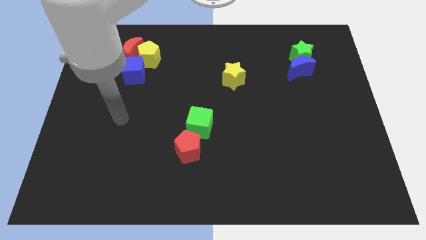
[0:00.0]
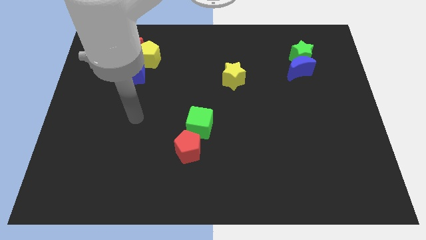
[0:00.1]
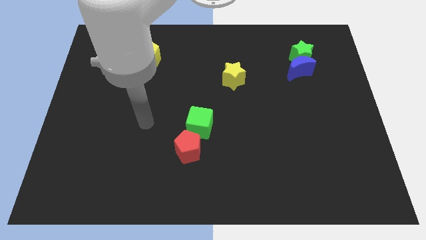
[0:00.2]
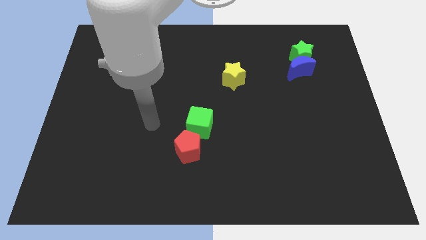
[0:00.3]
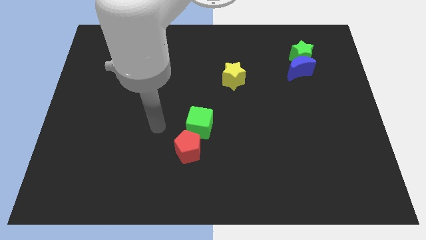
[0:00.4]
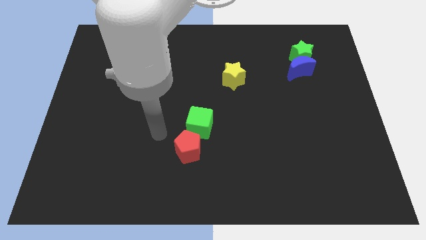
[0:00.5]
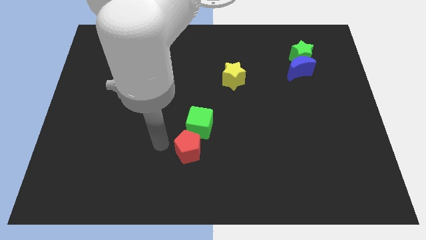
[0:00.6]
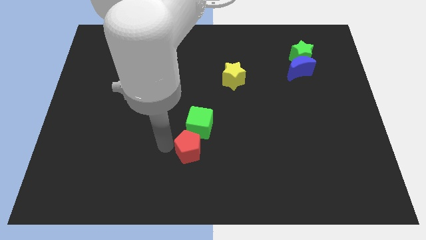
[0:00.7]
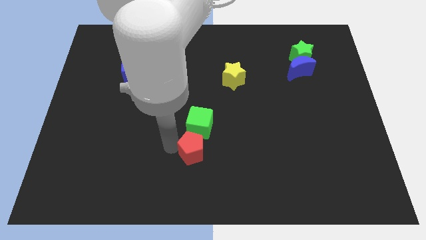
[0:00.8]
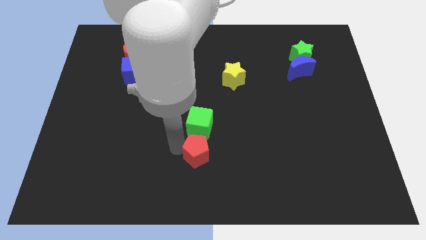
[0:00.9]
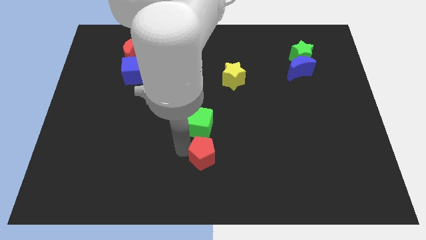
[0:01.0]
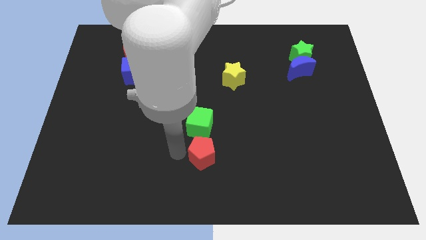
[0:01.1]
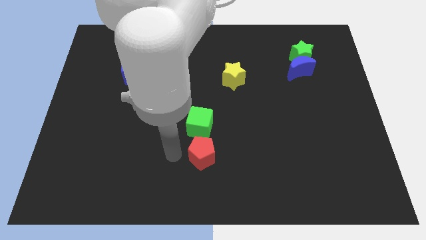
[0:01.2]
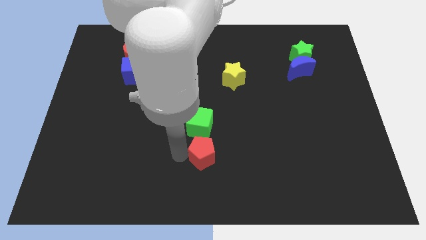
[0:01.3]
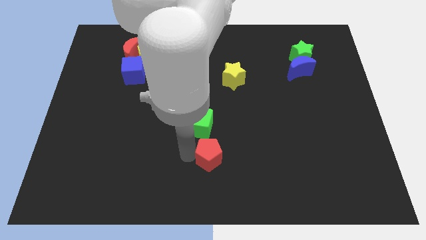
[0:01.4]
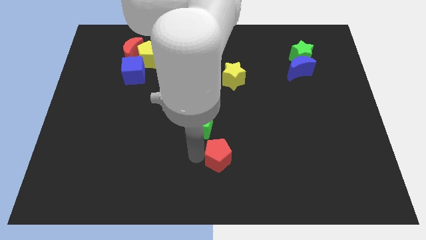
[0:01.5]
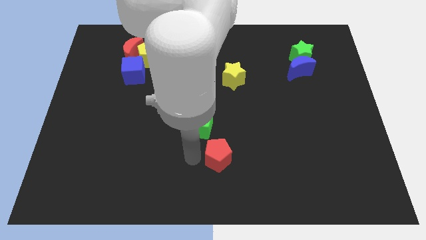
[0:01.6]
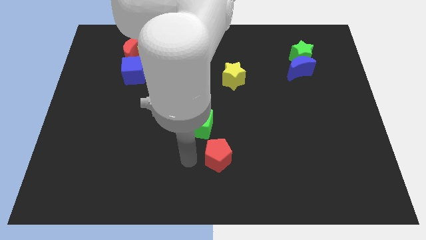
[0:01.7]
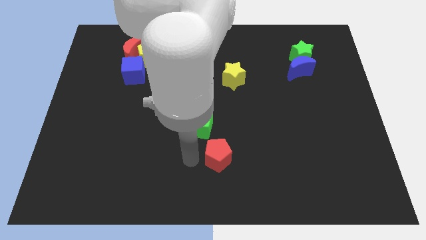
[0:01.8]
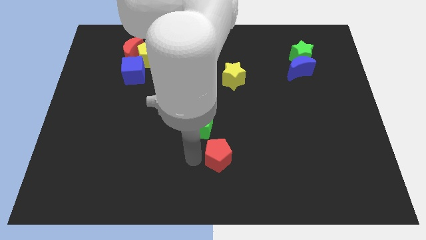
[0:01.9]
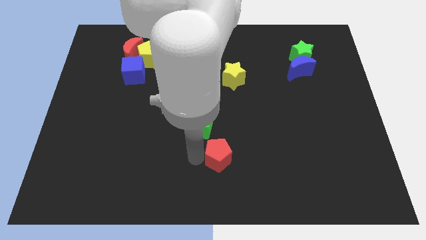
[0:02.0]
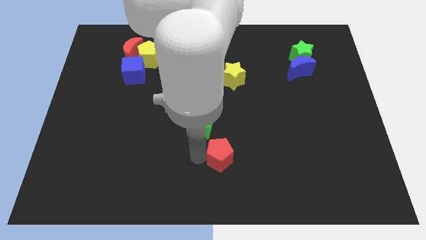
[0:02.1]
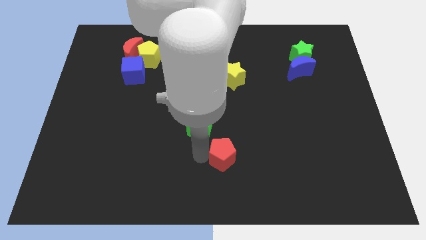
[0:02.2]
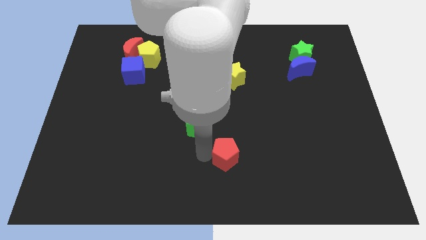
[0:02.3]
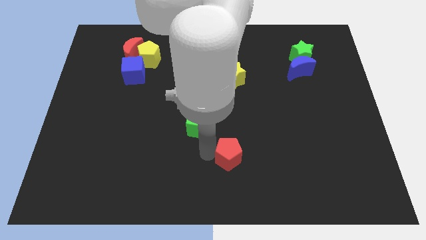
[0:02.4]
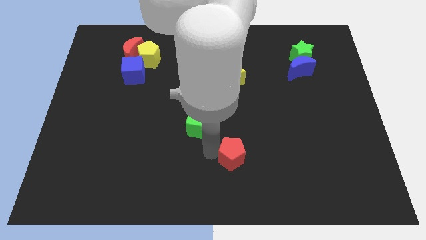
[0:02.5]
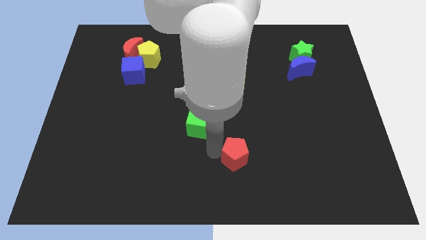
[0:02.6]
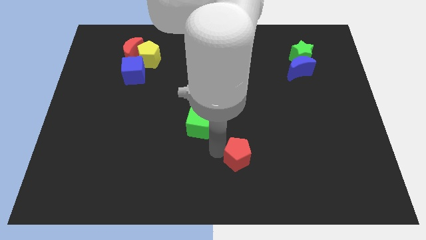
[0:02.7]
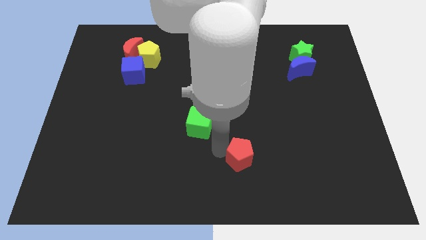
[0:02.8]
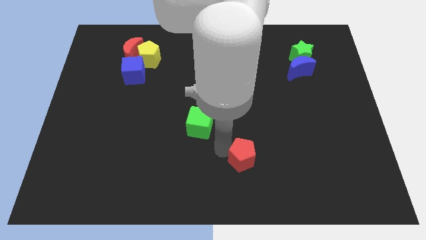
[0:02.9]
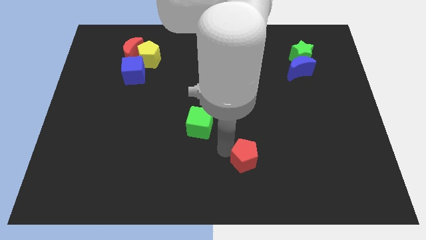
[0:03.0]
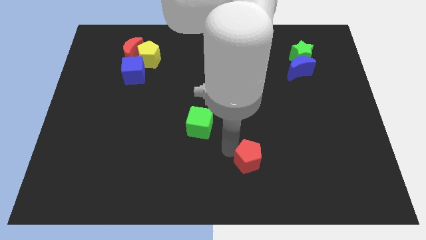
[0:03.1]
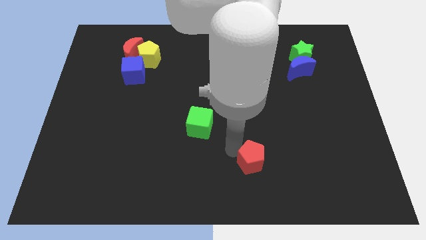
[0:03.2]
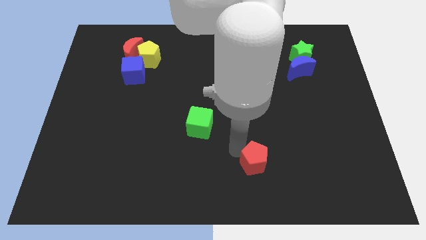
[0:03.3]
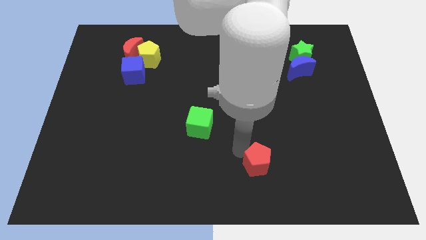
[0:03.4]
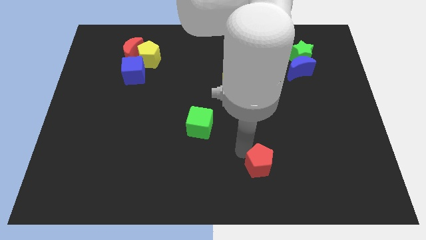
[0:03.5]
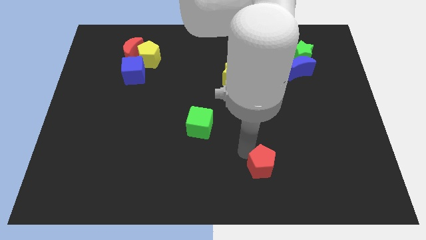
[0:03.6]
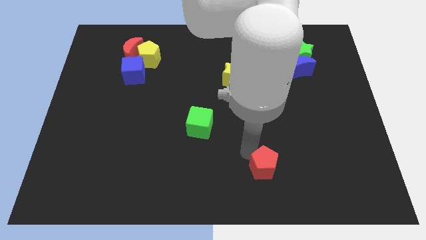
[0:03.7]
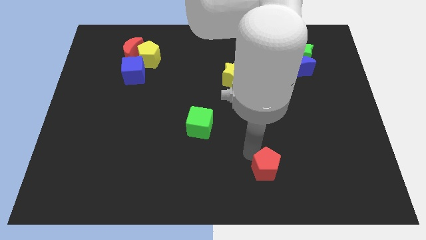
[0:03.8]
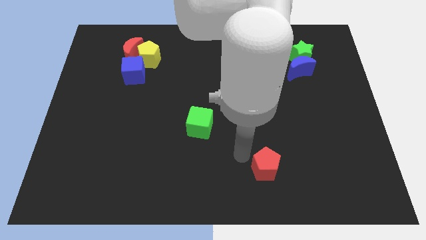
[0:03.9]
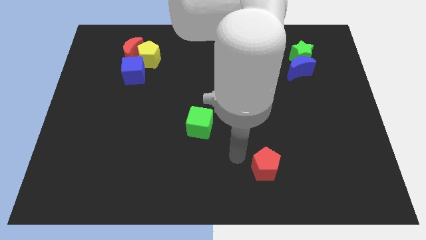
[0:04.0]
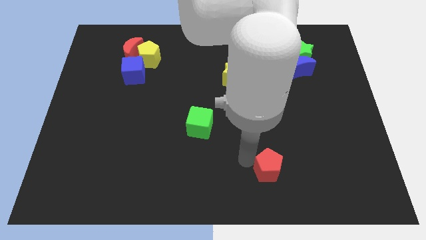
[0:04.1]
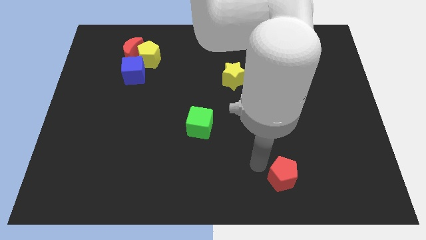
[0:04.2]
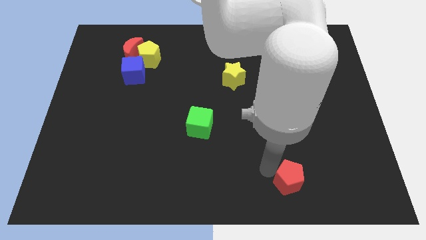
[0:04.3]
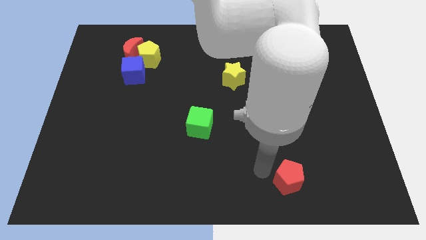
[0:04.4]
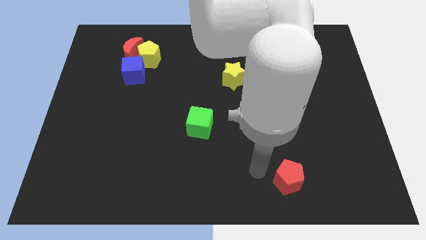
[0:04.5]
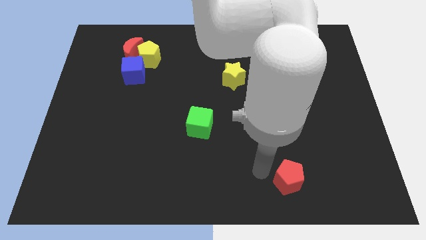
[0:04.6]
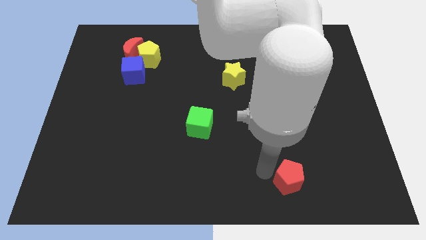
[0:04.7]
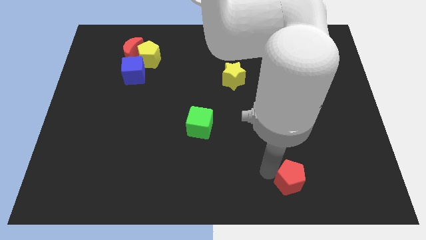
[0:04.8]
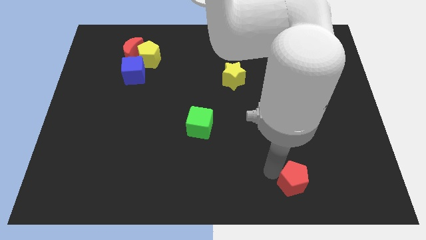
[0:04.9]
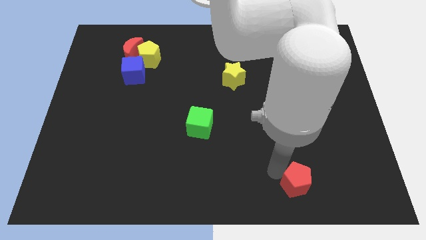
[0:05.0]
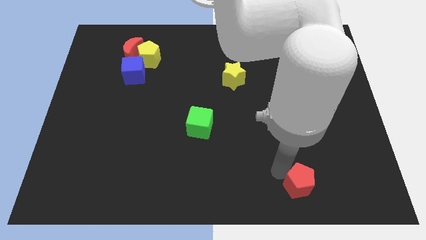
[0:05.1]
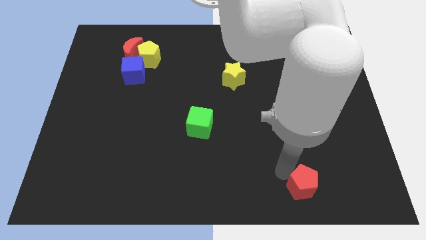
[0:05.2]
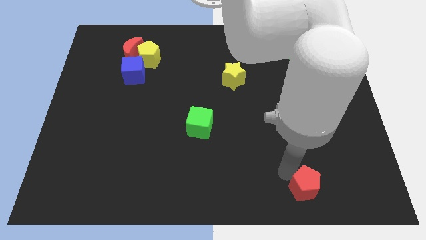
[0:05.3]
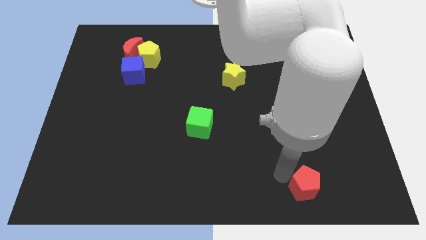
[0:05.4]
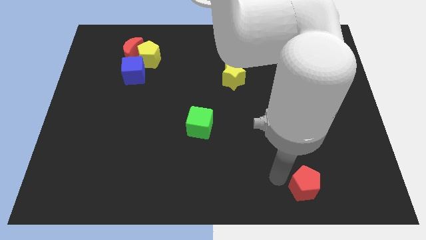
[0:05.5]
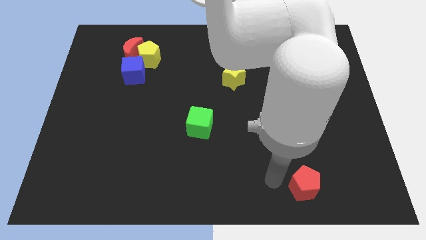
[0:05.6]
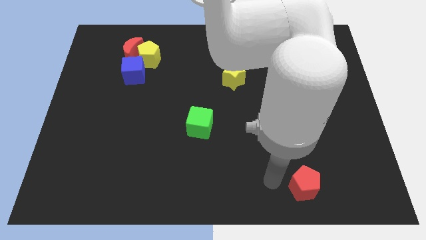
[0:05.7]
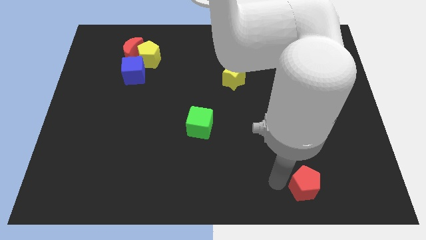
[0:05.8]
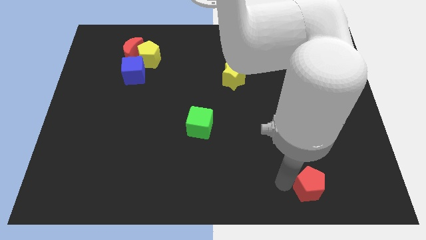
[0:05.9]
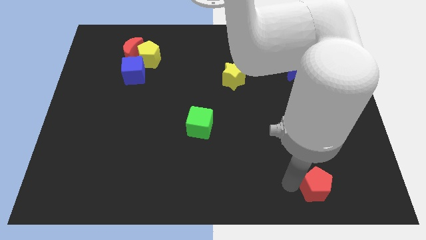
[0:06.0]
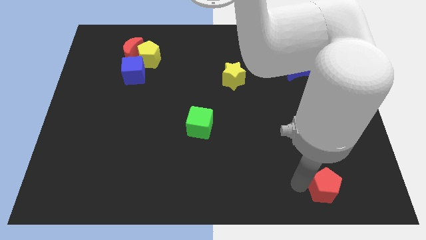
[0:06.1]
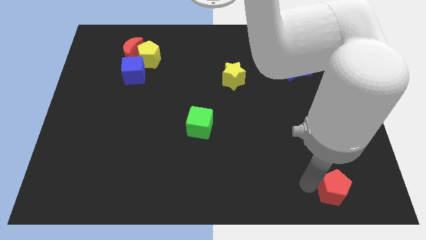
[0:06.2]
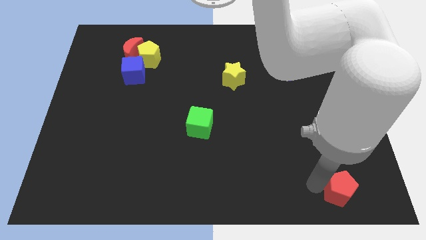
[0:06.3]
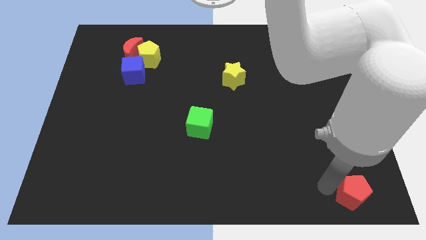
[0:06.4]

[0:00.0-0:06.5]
push the red pentagon to the lower right corner

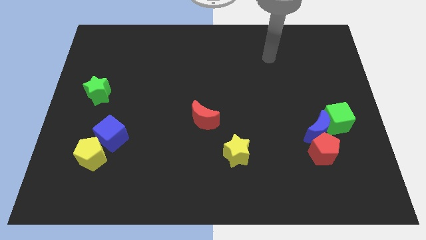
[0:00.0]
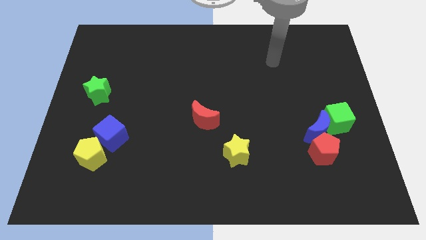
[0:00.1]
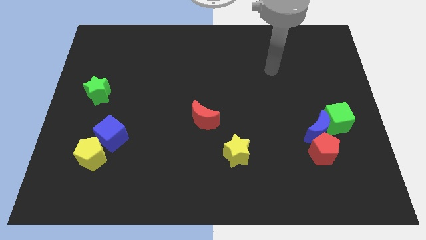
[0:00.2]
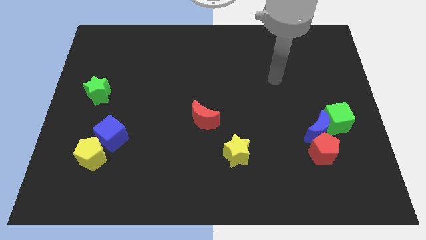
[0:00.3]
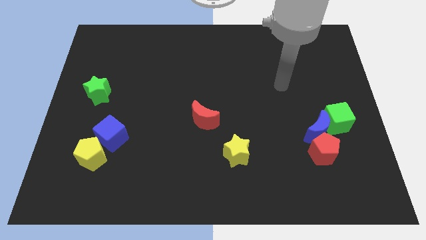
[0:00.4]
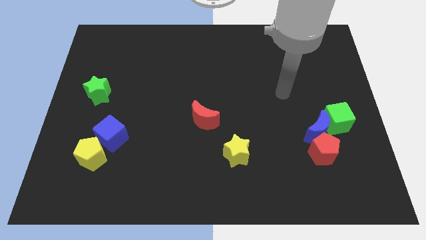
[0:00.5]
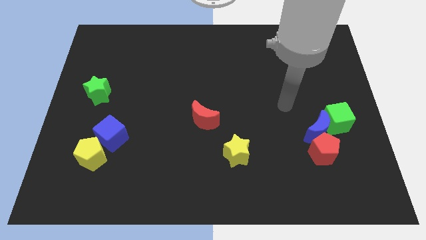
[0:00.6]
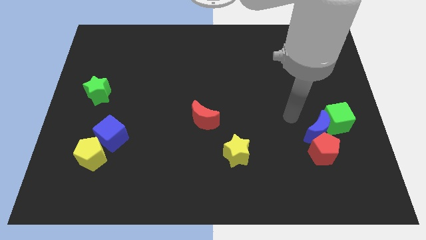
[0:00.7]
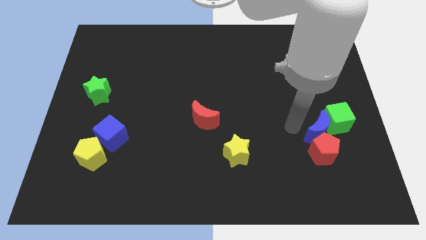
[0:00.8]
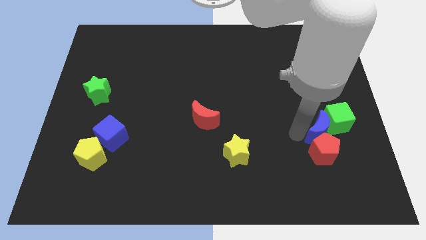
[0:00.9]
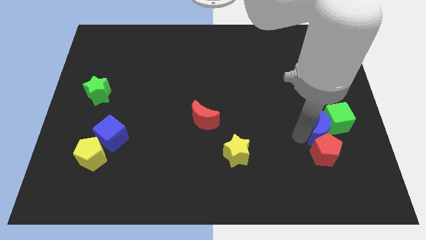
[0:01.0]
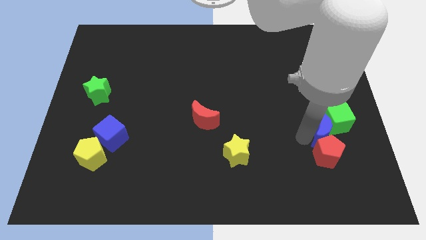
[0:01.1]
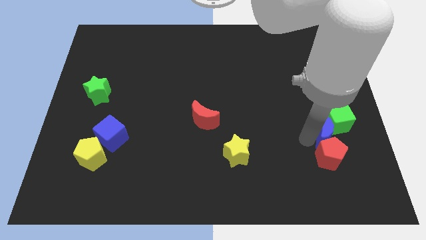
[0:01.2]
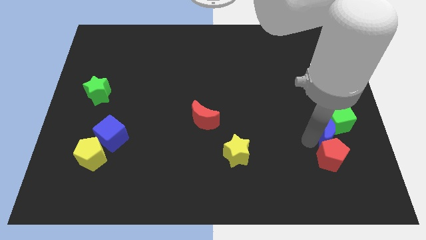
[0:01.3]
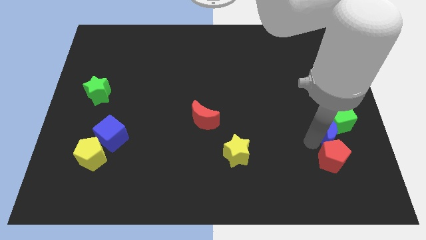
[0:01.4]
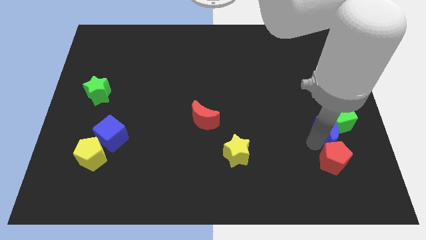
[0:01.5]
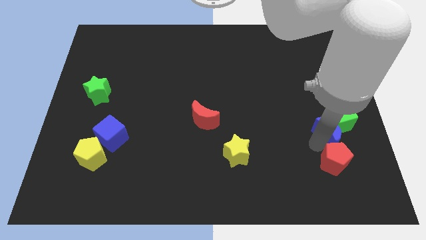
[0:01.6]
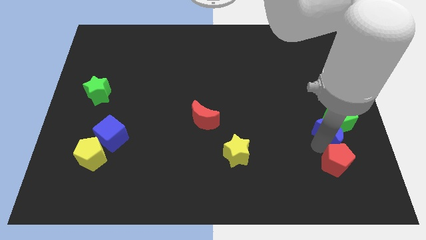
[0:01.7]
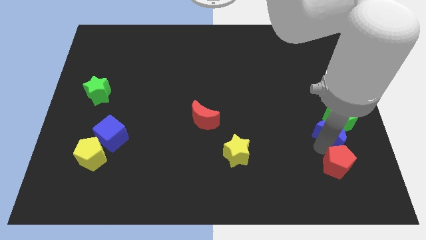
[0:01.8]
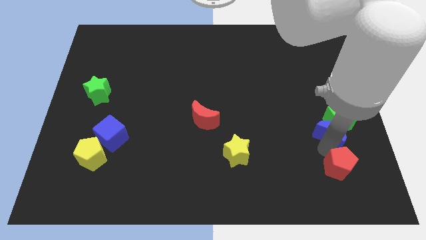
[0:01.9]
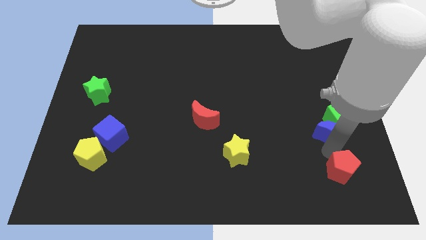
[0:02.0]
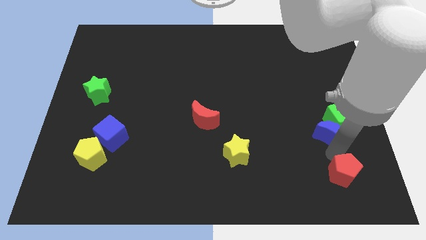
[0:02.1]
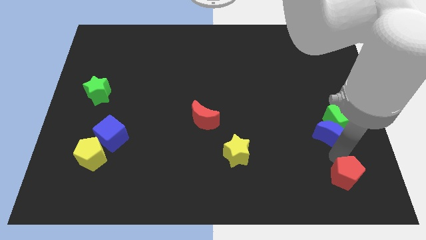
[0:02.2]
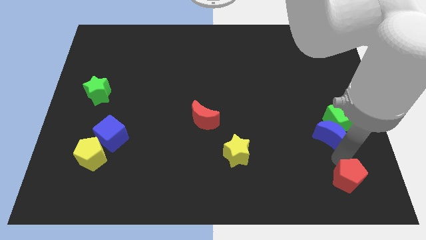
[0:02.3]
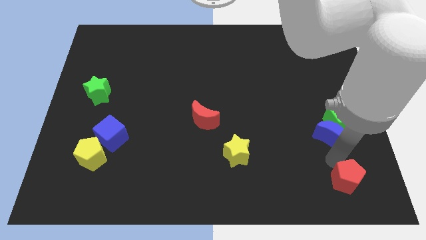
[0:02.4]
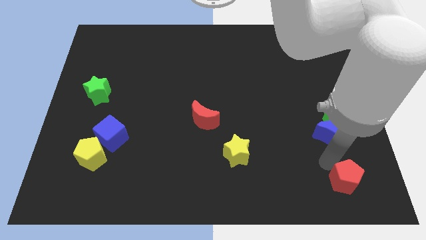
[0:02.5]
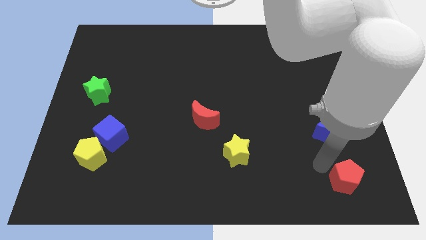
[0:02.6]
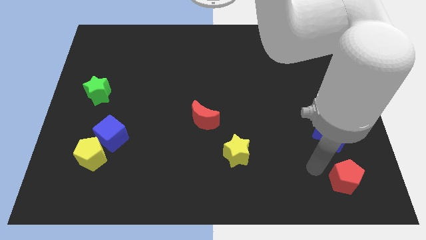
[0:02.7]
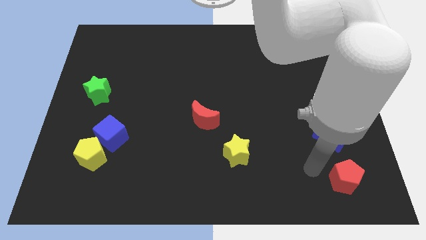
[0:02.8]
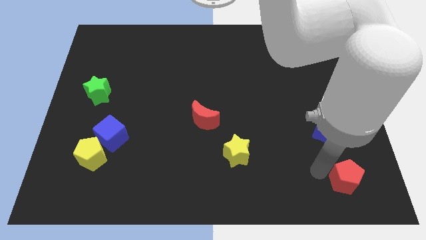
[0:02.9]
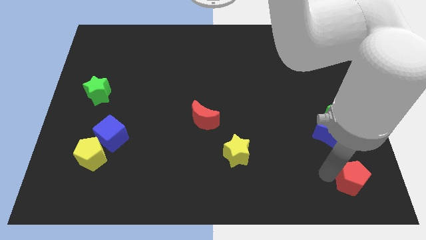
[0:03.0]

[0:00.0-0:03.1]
push the red pentagon to the bottom right of the board
